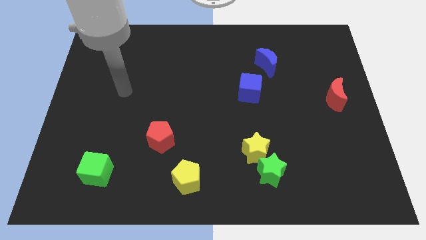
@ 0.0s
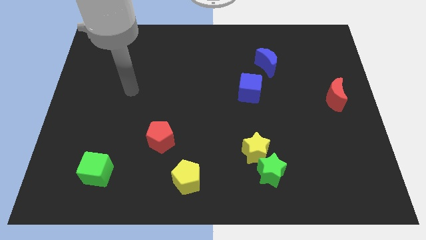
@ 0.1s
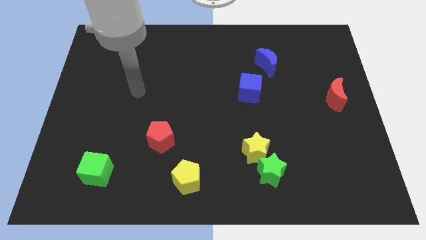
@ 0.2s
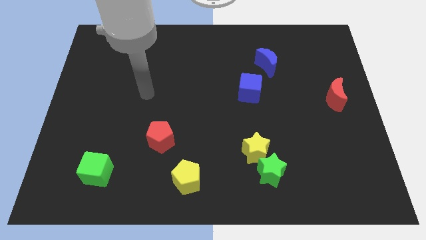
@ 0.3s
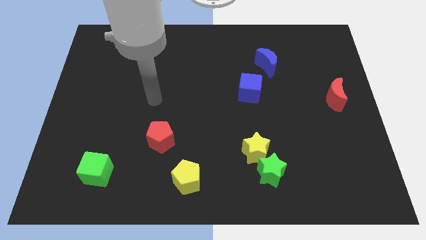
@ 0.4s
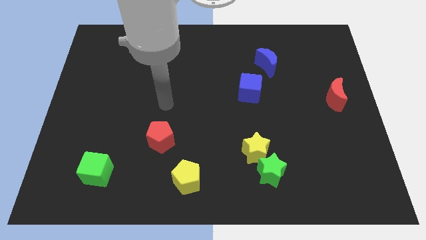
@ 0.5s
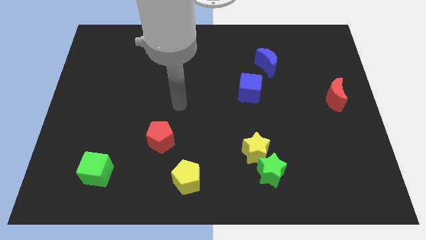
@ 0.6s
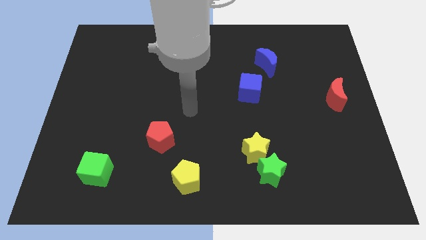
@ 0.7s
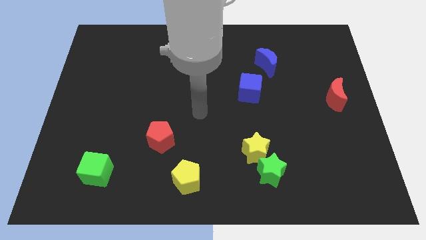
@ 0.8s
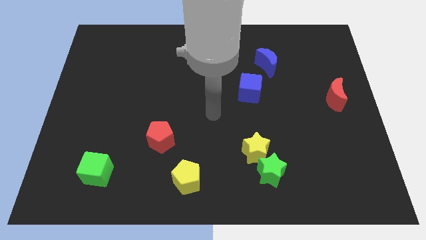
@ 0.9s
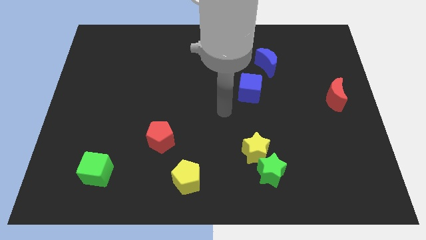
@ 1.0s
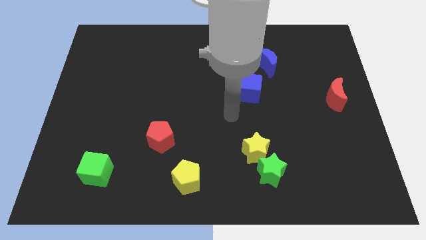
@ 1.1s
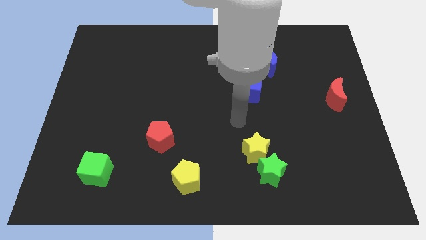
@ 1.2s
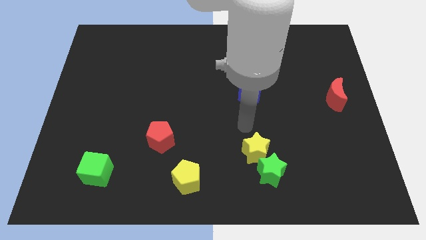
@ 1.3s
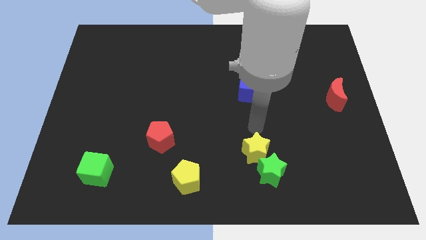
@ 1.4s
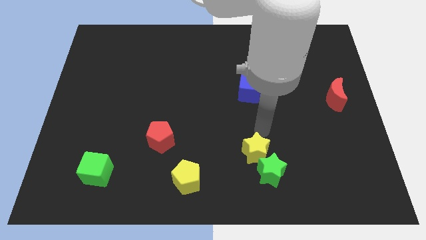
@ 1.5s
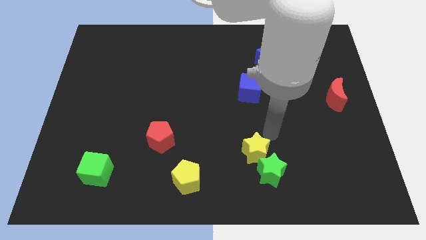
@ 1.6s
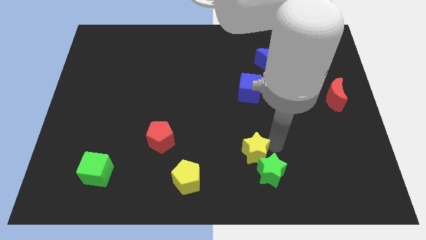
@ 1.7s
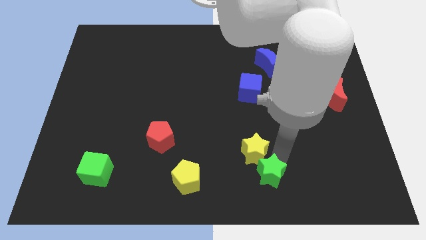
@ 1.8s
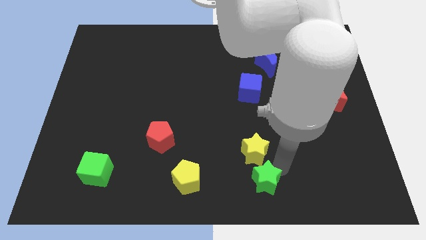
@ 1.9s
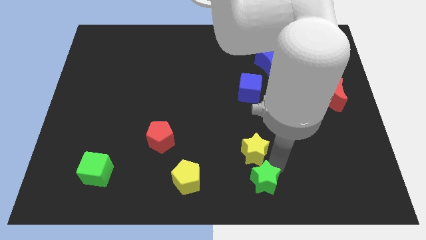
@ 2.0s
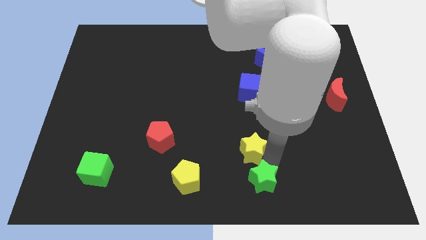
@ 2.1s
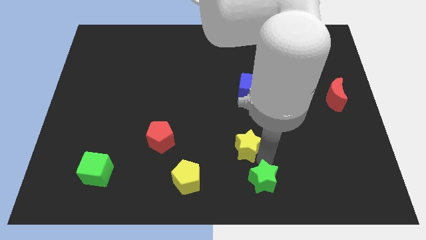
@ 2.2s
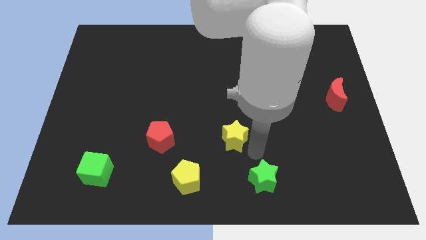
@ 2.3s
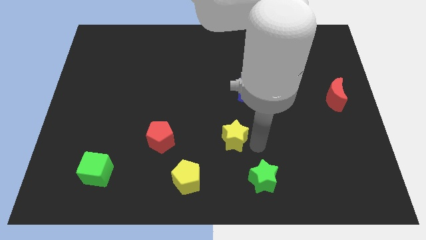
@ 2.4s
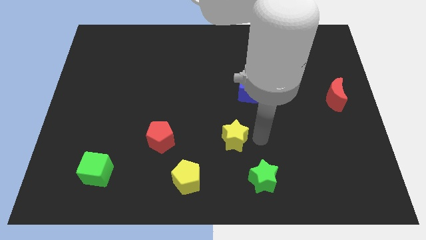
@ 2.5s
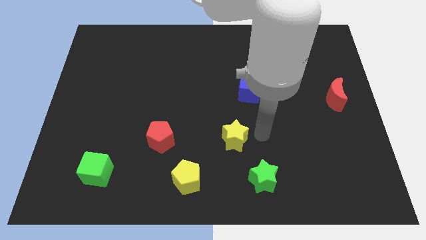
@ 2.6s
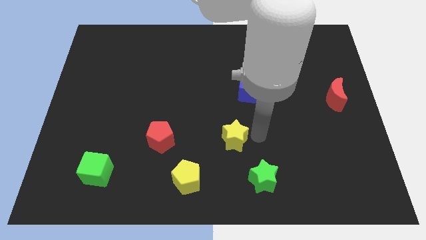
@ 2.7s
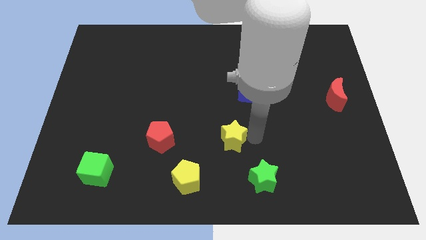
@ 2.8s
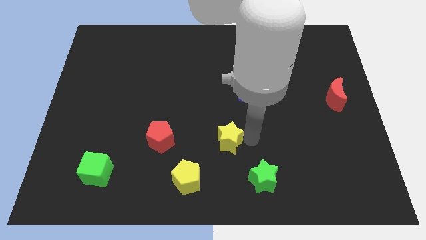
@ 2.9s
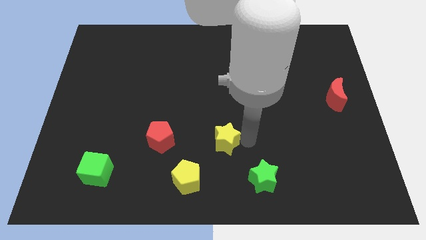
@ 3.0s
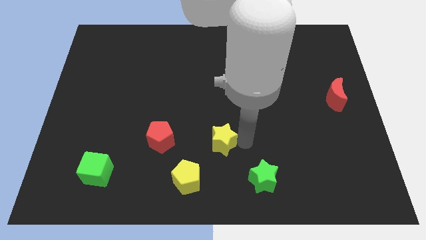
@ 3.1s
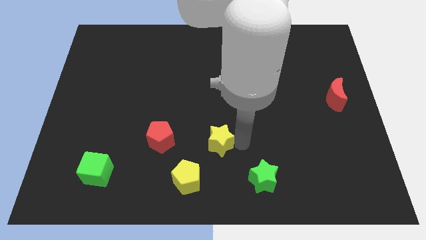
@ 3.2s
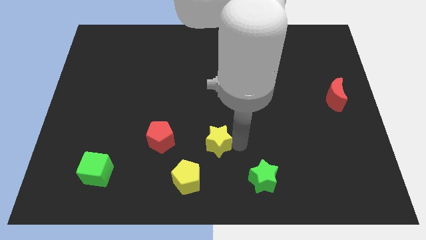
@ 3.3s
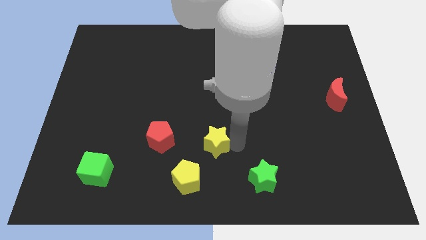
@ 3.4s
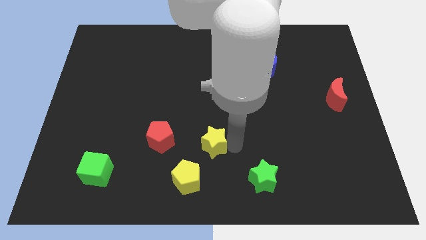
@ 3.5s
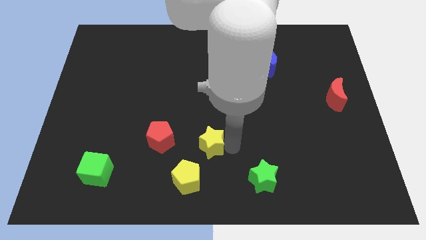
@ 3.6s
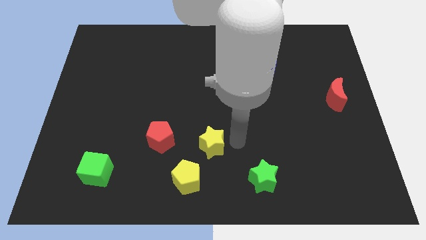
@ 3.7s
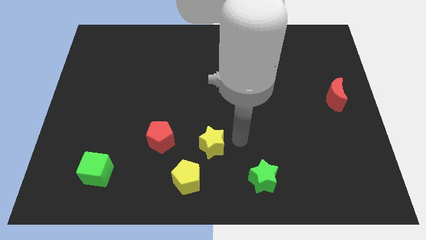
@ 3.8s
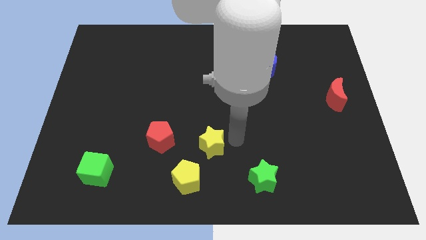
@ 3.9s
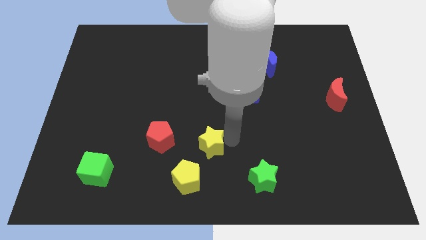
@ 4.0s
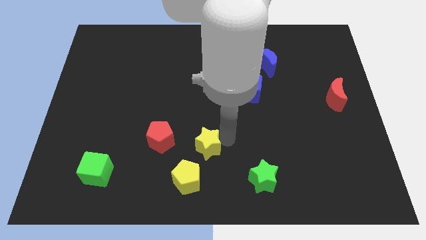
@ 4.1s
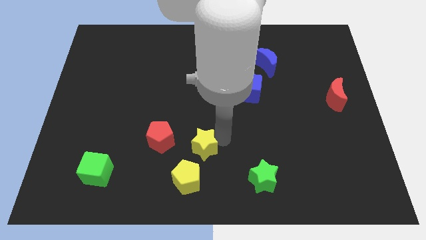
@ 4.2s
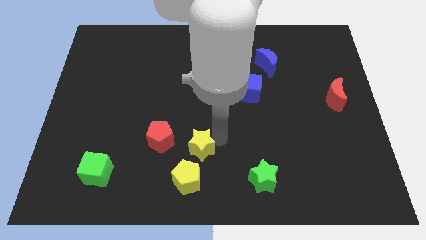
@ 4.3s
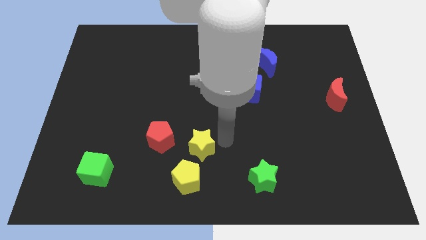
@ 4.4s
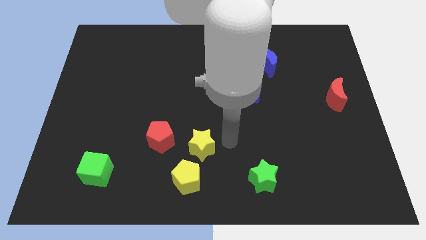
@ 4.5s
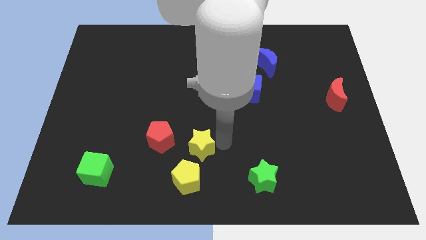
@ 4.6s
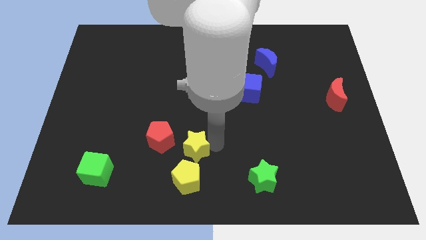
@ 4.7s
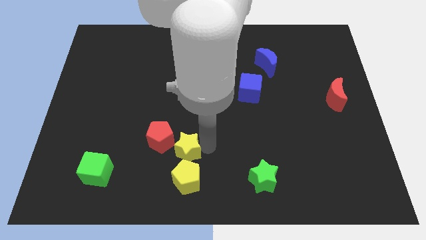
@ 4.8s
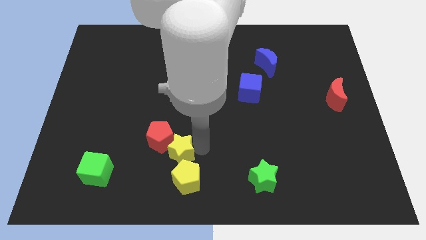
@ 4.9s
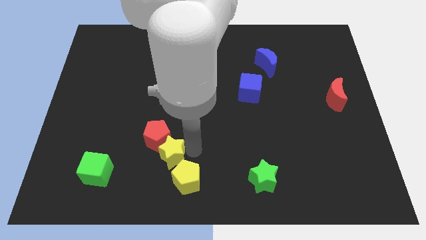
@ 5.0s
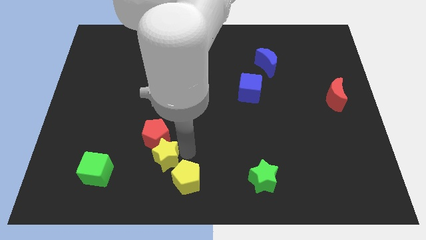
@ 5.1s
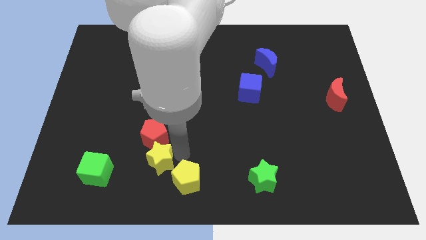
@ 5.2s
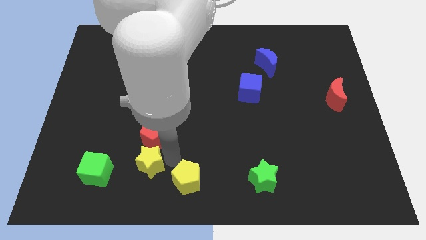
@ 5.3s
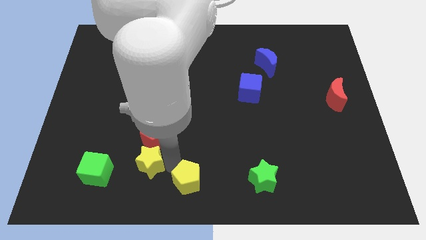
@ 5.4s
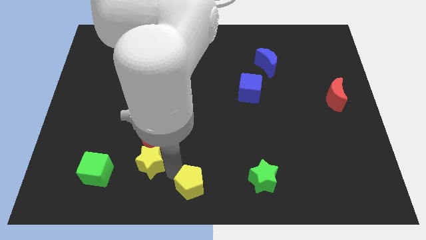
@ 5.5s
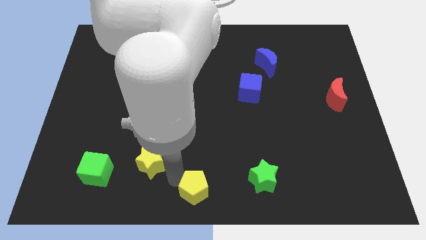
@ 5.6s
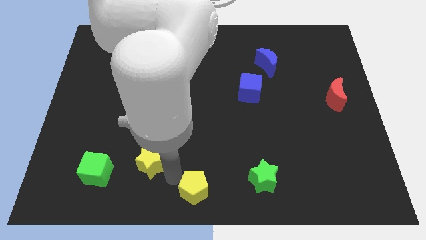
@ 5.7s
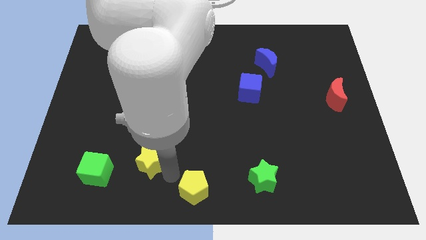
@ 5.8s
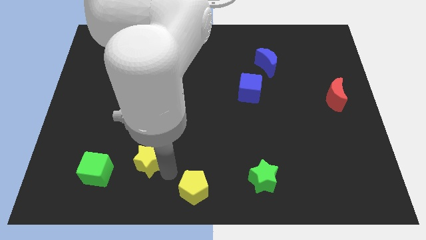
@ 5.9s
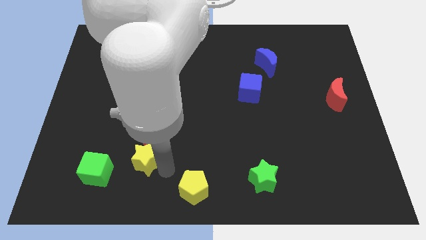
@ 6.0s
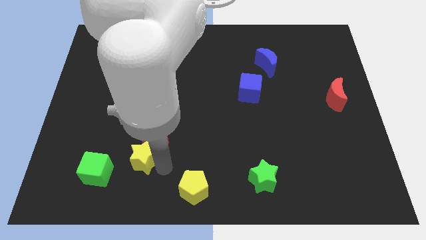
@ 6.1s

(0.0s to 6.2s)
push the yellow star to the top right of the green cube

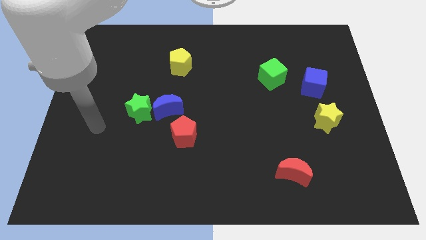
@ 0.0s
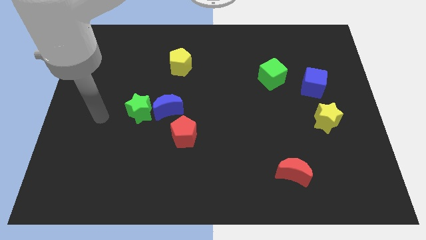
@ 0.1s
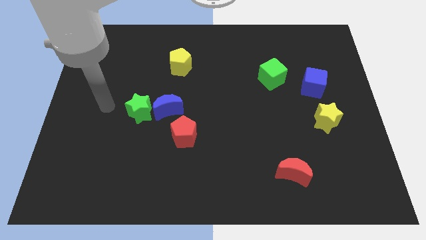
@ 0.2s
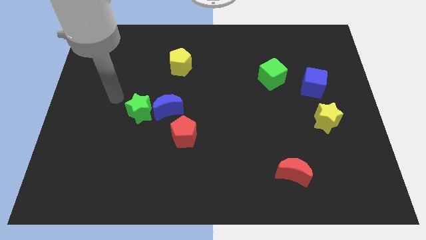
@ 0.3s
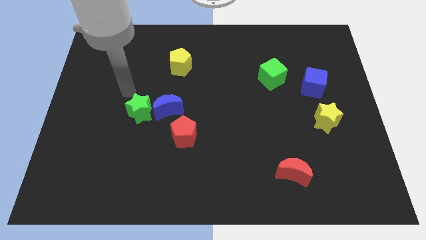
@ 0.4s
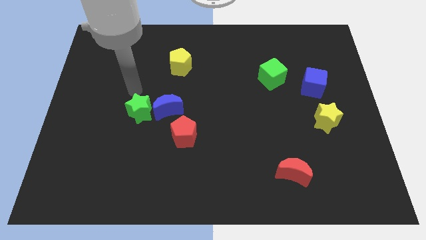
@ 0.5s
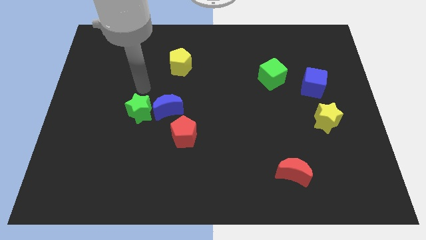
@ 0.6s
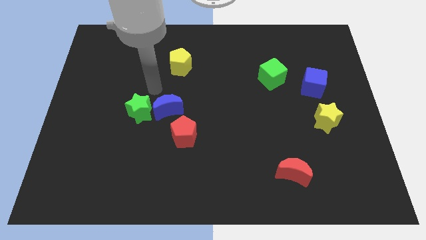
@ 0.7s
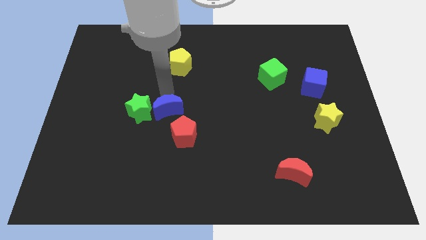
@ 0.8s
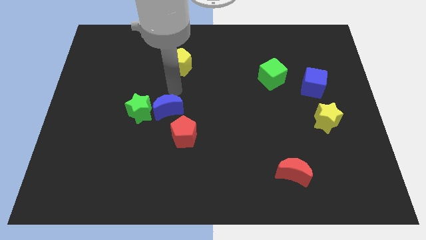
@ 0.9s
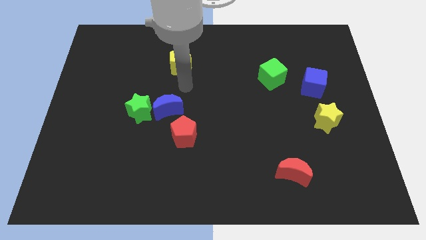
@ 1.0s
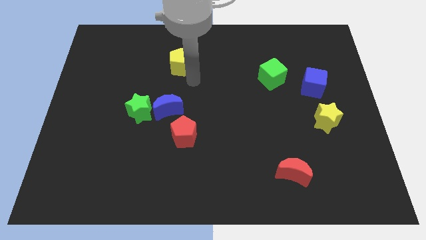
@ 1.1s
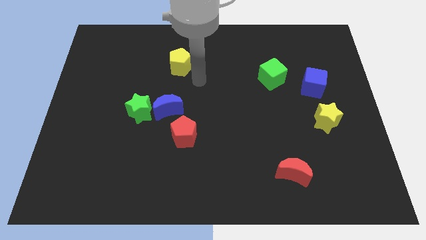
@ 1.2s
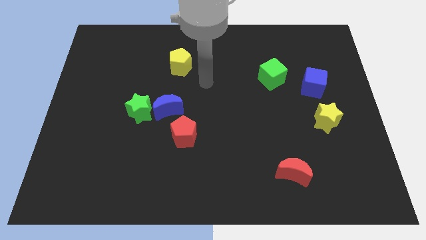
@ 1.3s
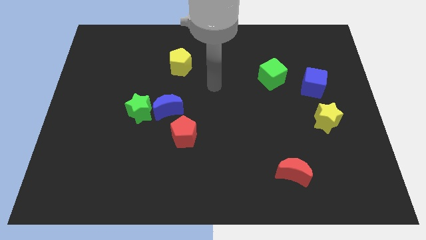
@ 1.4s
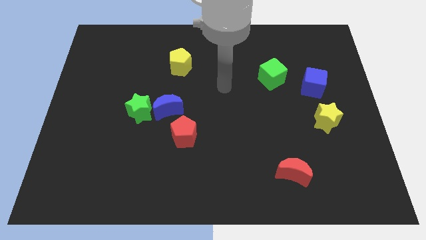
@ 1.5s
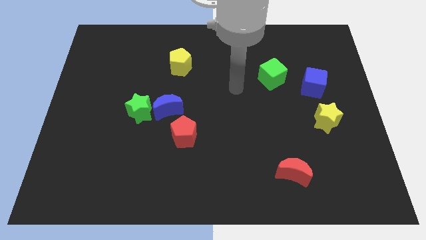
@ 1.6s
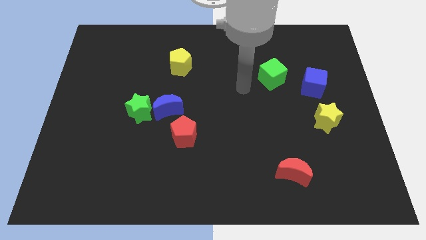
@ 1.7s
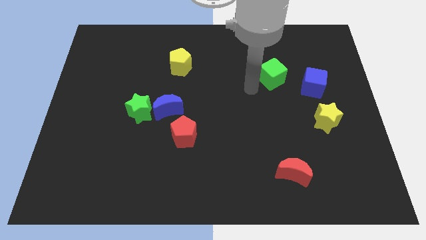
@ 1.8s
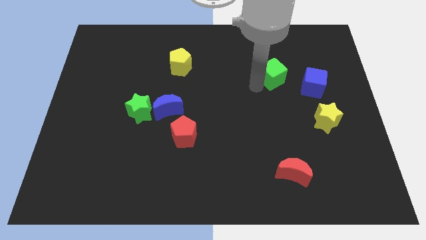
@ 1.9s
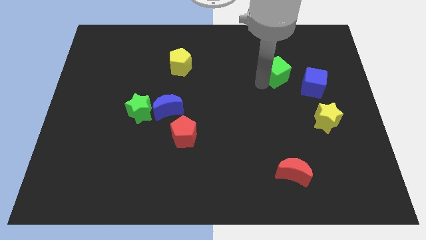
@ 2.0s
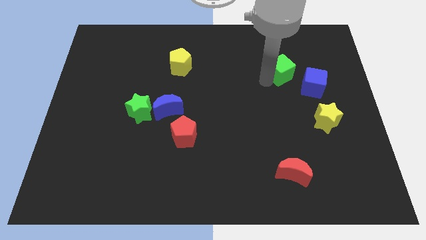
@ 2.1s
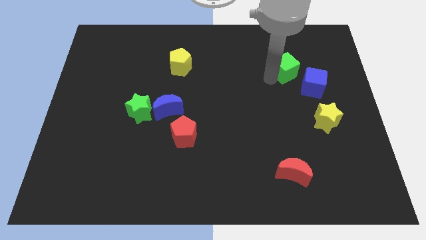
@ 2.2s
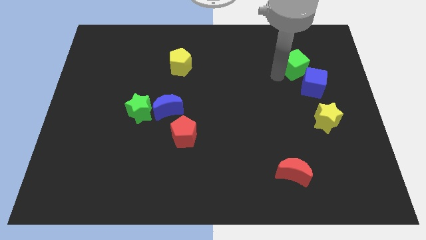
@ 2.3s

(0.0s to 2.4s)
put the green cube to the top side of the blue cube
